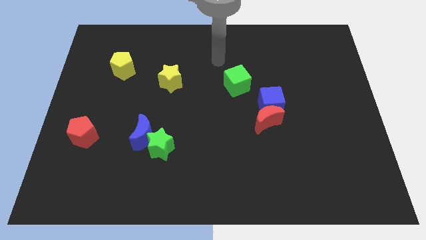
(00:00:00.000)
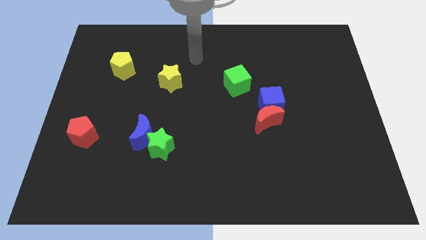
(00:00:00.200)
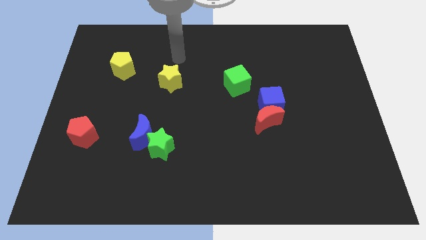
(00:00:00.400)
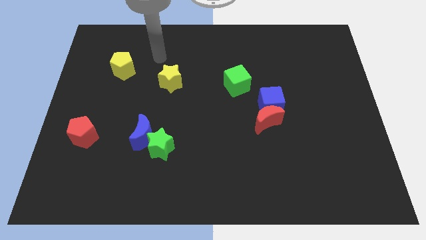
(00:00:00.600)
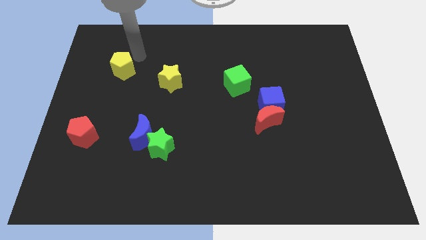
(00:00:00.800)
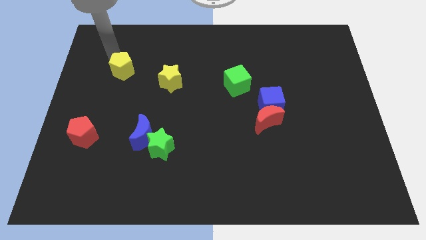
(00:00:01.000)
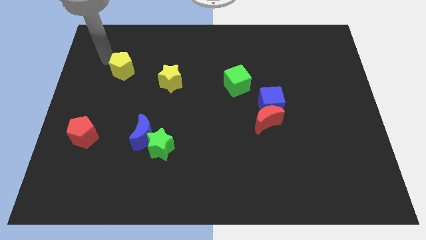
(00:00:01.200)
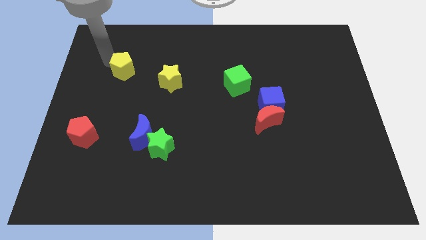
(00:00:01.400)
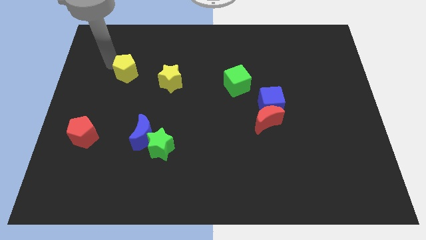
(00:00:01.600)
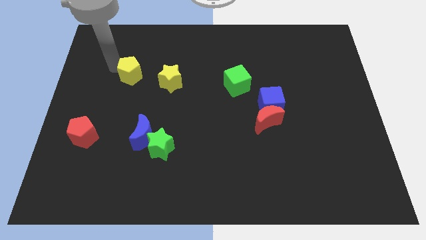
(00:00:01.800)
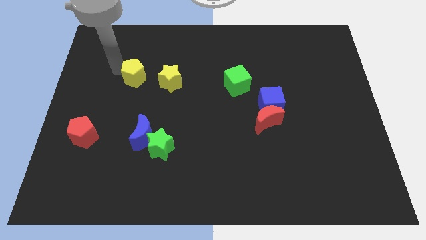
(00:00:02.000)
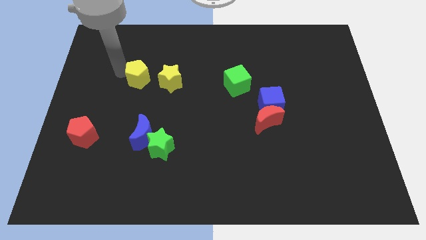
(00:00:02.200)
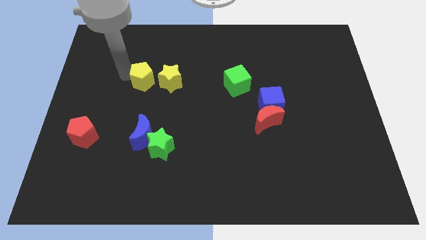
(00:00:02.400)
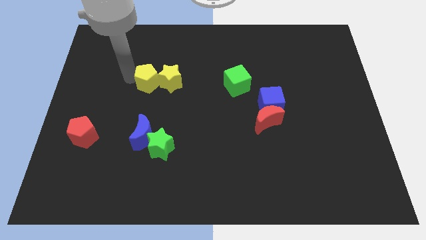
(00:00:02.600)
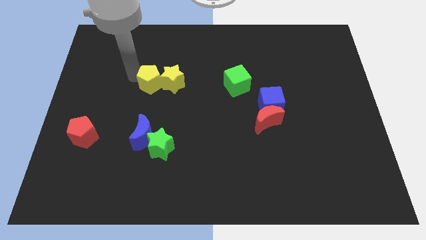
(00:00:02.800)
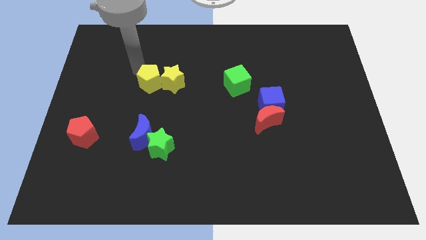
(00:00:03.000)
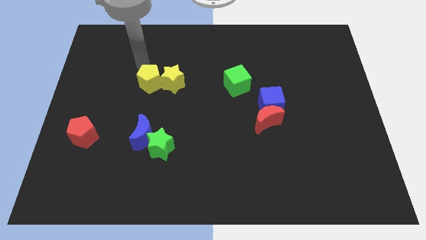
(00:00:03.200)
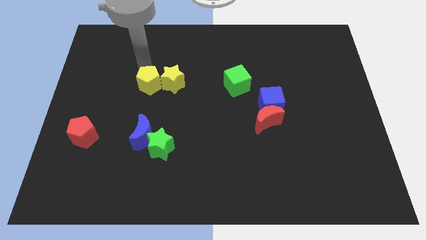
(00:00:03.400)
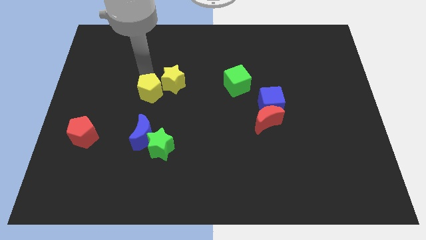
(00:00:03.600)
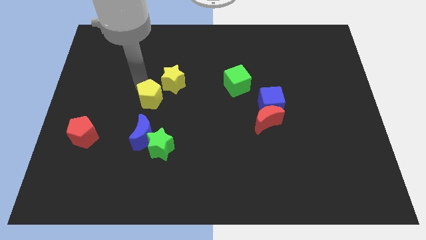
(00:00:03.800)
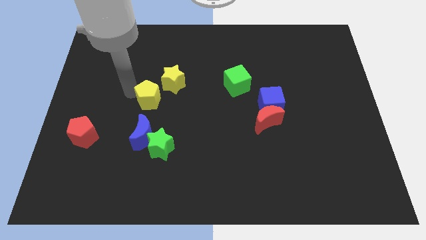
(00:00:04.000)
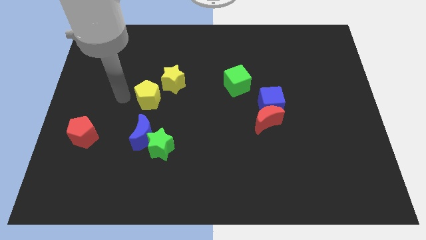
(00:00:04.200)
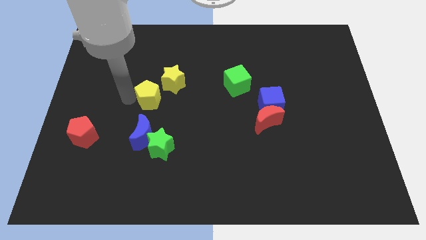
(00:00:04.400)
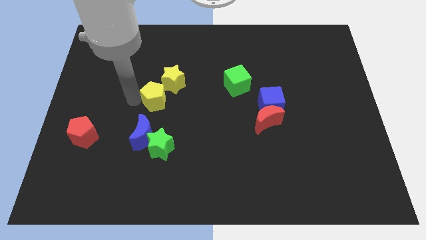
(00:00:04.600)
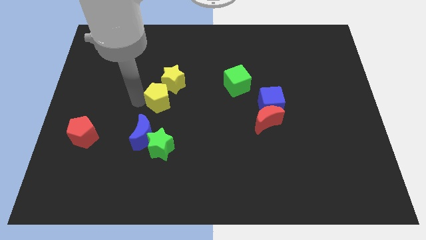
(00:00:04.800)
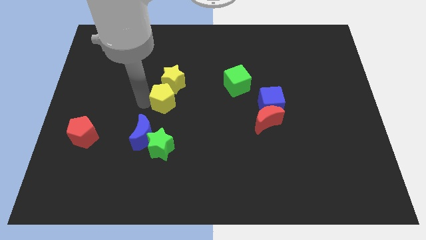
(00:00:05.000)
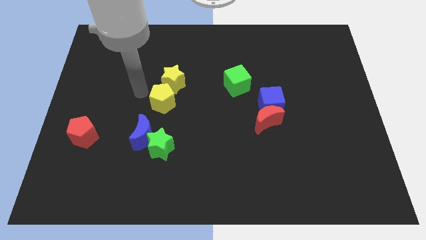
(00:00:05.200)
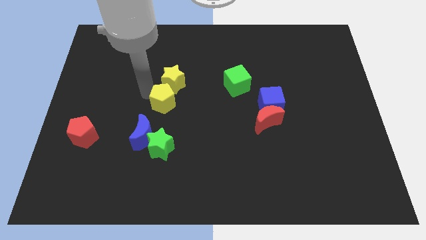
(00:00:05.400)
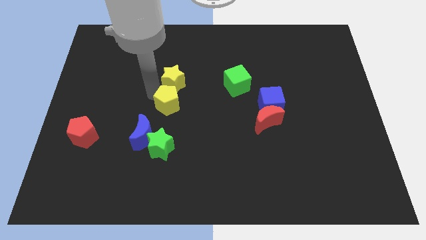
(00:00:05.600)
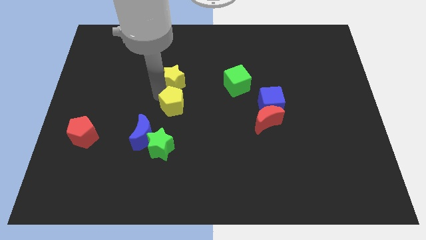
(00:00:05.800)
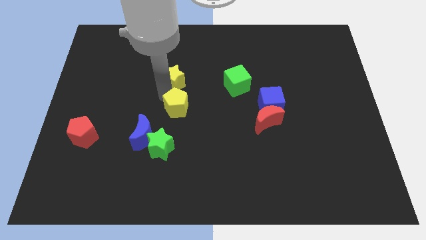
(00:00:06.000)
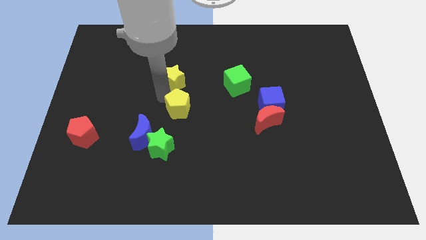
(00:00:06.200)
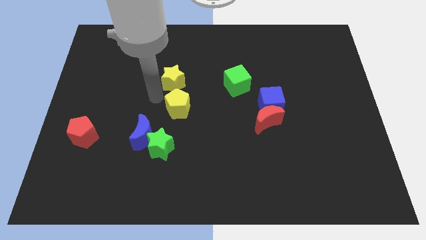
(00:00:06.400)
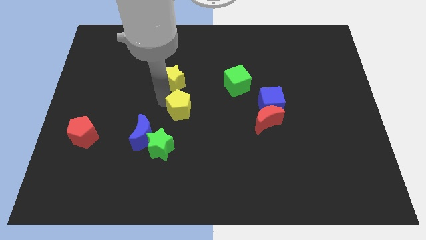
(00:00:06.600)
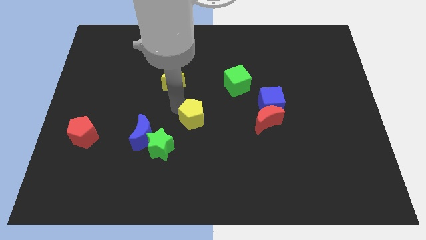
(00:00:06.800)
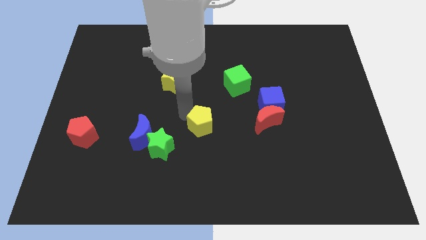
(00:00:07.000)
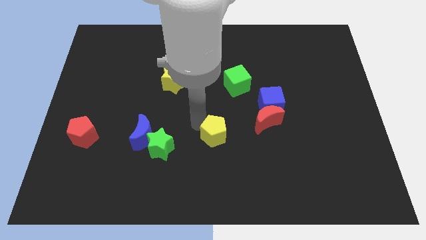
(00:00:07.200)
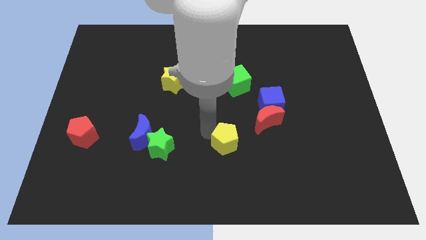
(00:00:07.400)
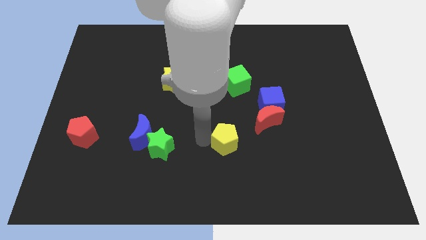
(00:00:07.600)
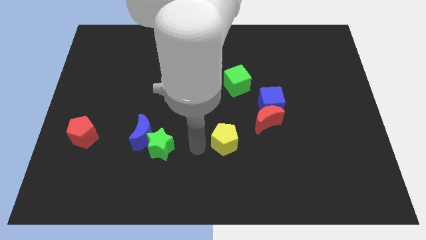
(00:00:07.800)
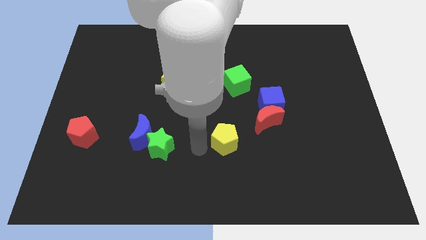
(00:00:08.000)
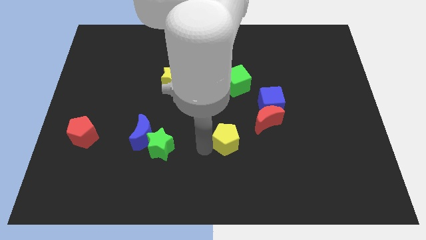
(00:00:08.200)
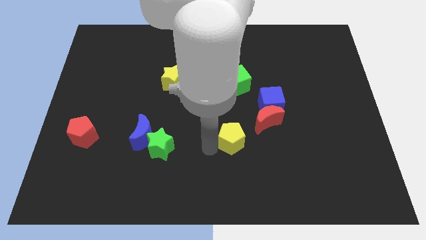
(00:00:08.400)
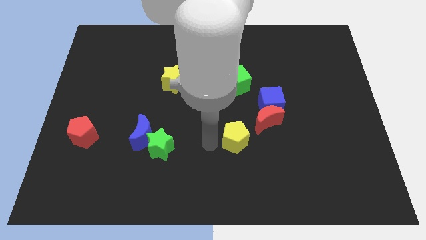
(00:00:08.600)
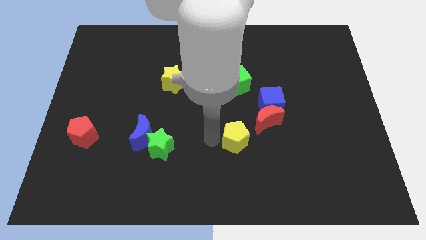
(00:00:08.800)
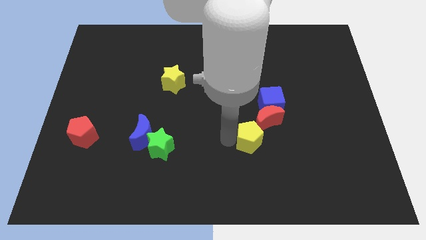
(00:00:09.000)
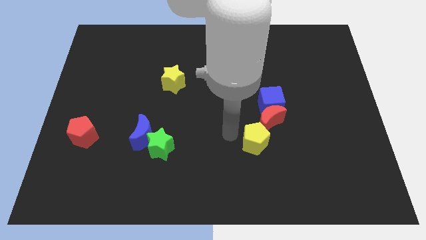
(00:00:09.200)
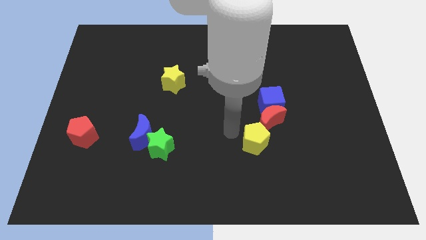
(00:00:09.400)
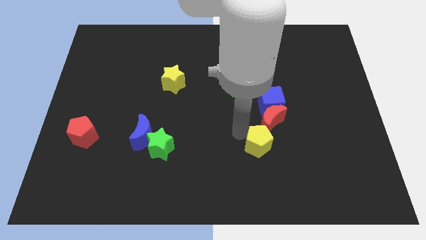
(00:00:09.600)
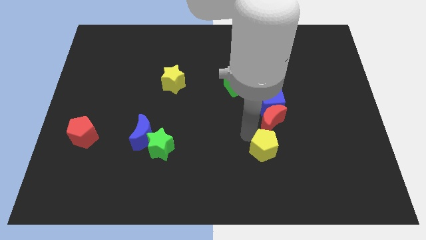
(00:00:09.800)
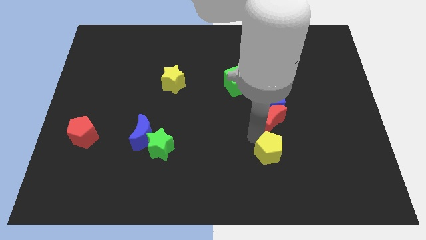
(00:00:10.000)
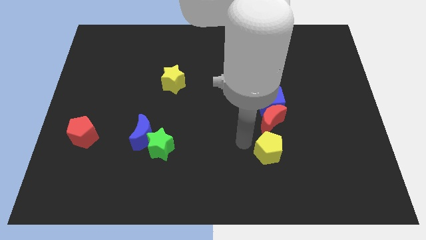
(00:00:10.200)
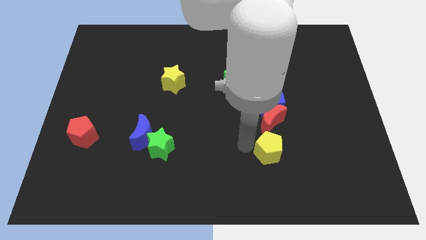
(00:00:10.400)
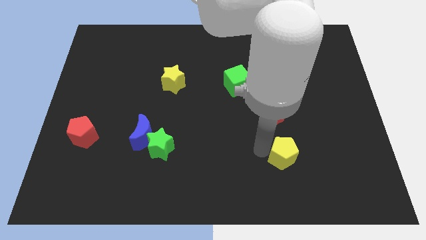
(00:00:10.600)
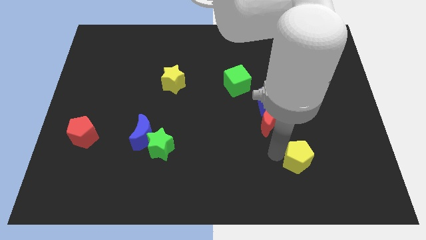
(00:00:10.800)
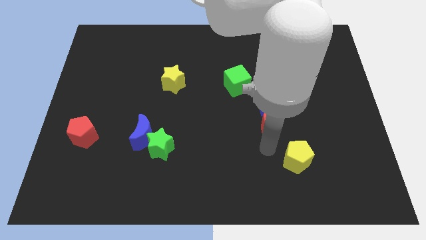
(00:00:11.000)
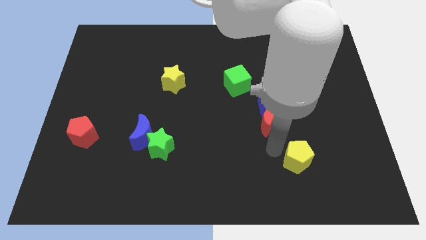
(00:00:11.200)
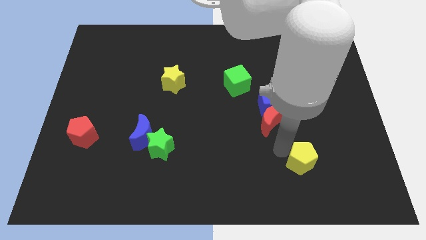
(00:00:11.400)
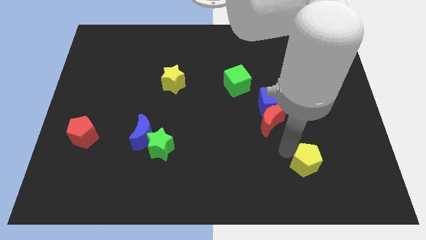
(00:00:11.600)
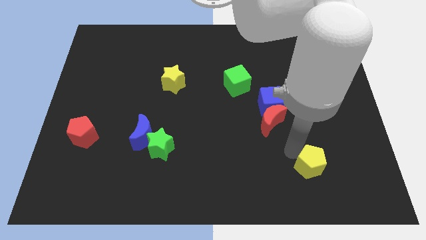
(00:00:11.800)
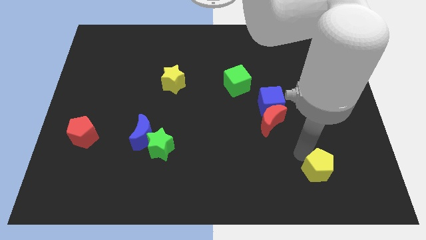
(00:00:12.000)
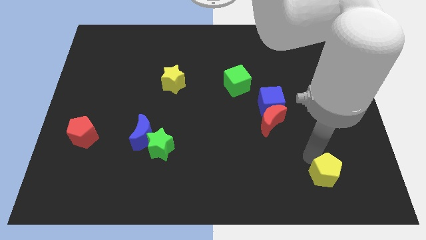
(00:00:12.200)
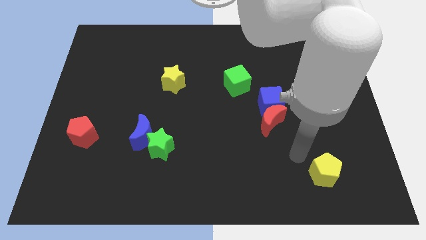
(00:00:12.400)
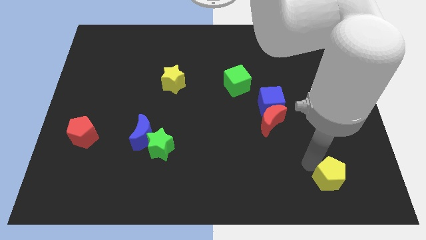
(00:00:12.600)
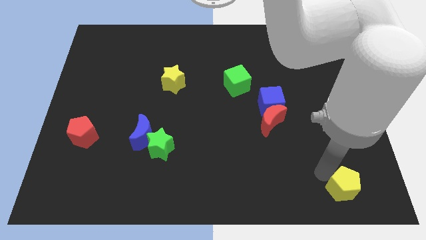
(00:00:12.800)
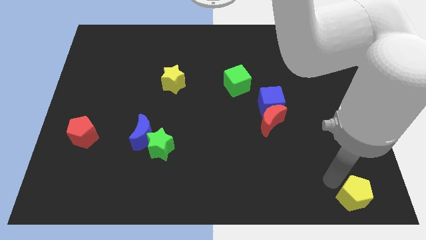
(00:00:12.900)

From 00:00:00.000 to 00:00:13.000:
push the yellow pentagon to the lower right corner
